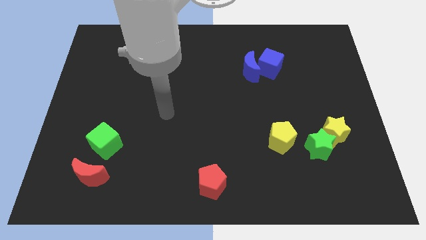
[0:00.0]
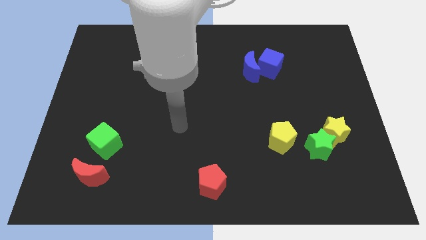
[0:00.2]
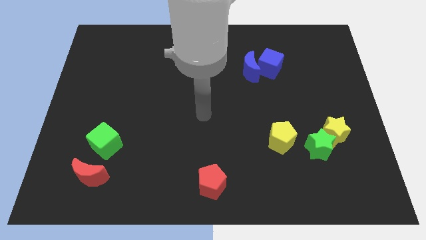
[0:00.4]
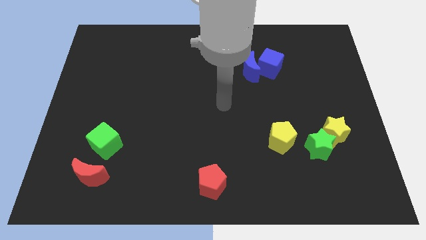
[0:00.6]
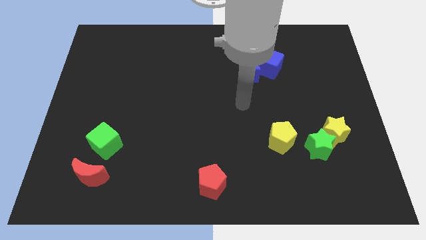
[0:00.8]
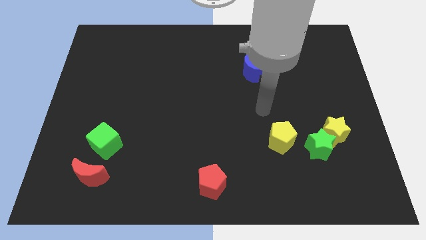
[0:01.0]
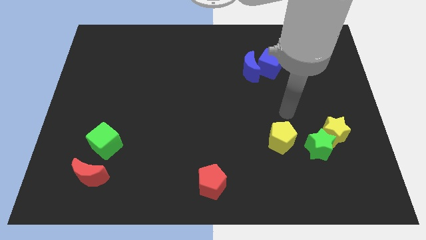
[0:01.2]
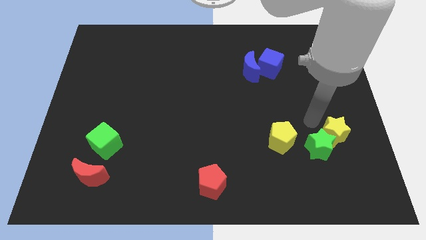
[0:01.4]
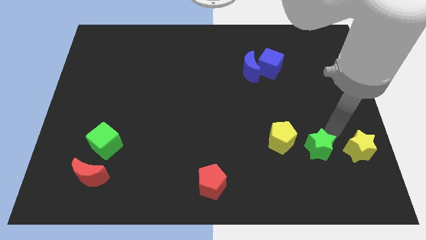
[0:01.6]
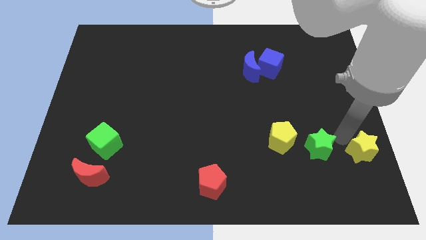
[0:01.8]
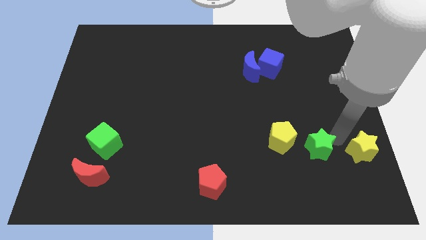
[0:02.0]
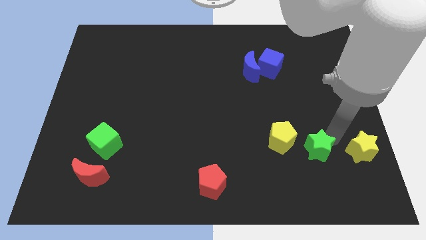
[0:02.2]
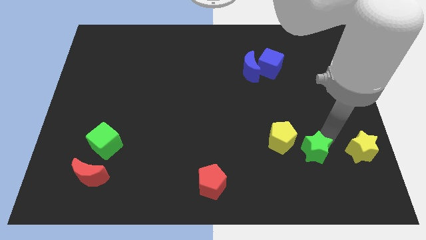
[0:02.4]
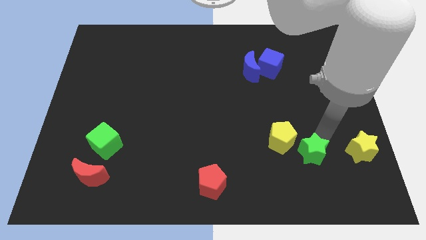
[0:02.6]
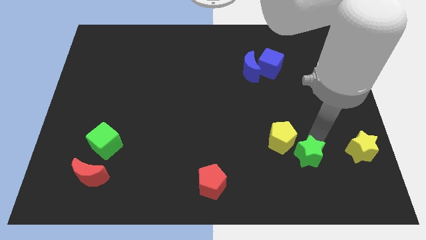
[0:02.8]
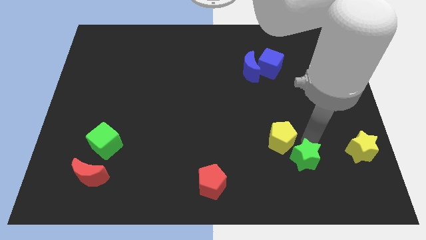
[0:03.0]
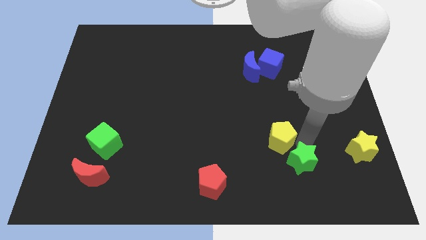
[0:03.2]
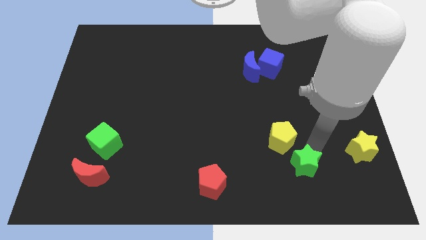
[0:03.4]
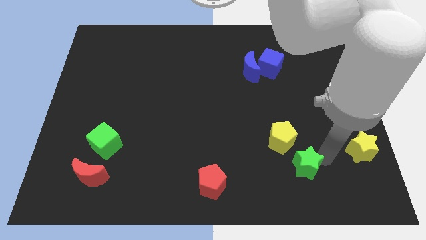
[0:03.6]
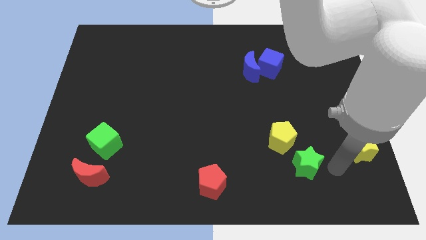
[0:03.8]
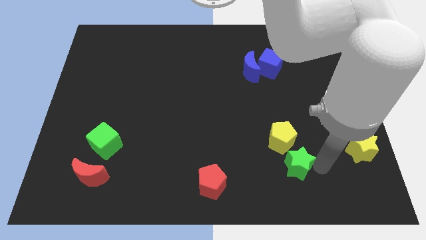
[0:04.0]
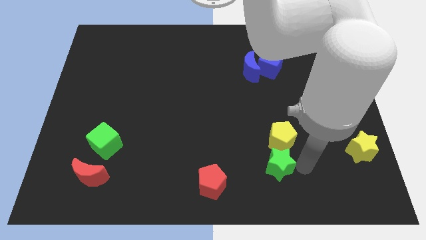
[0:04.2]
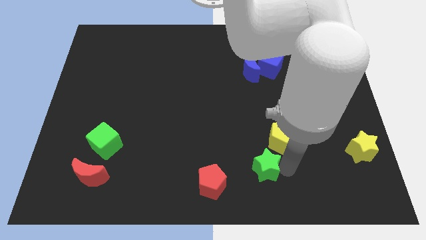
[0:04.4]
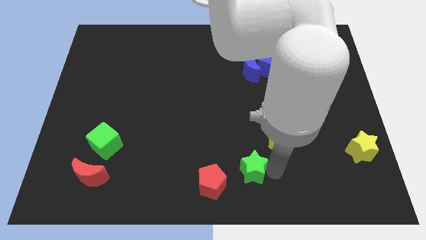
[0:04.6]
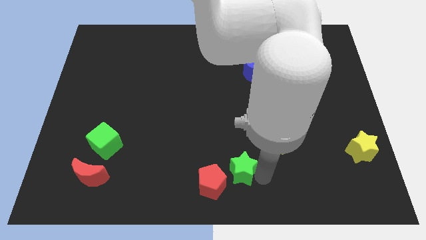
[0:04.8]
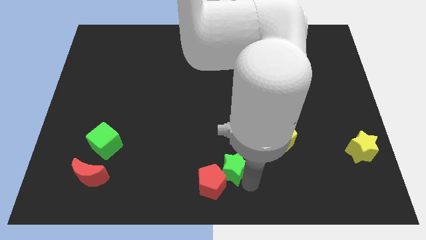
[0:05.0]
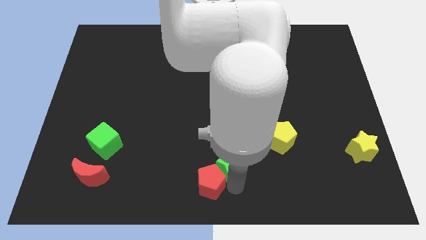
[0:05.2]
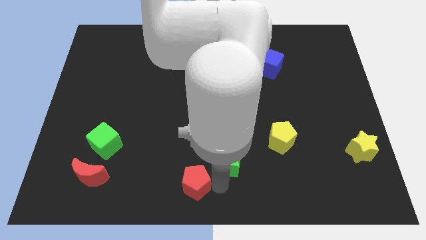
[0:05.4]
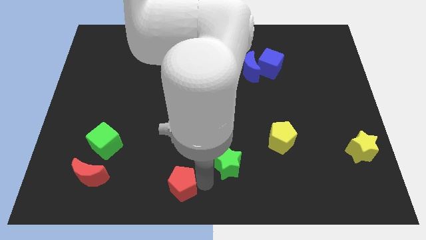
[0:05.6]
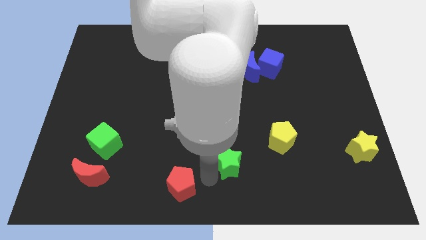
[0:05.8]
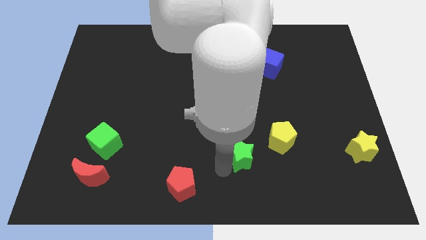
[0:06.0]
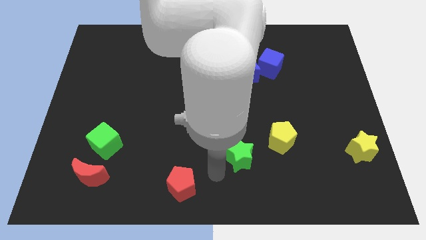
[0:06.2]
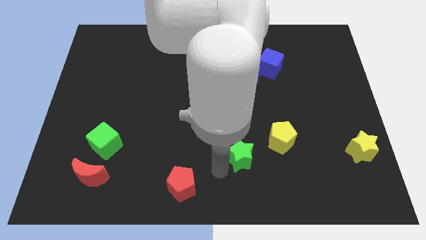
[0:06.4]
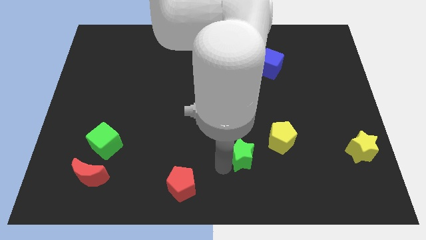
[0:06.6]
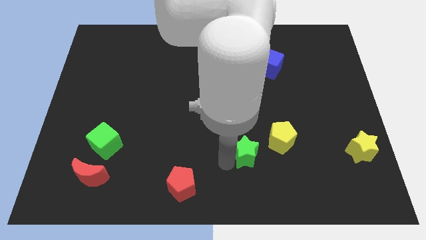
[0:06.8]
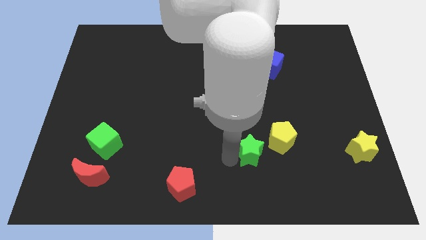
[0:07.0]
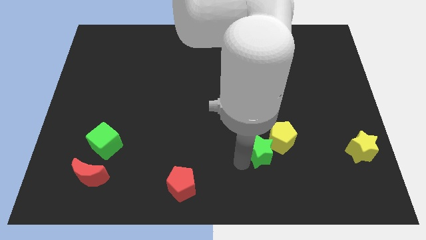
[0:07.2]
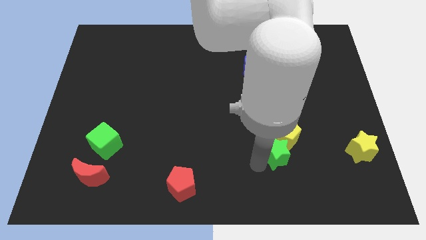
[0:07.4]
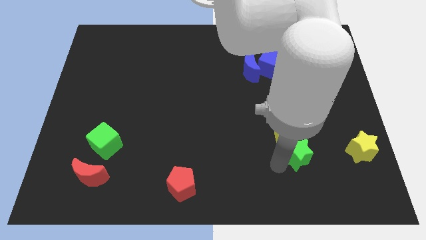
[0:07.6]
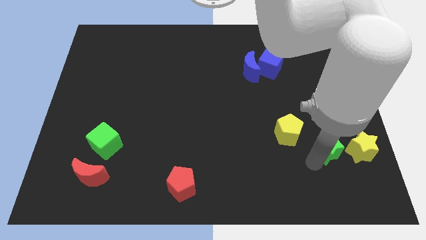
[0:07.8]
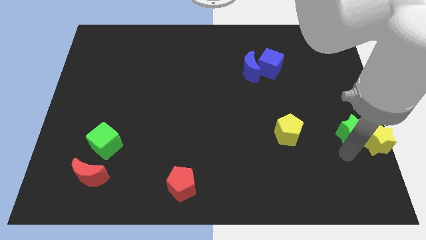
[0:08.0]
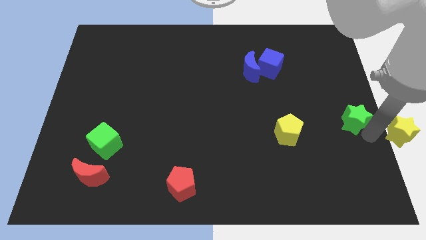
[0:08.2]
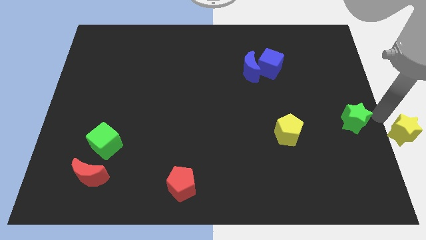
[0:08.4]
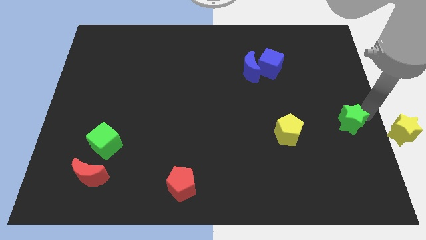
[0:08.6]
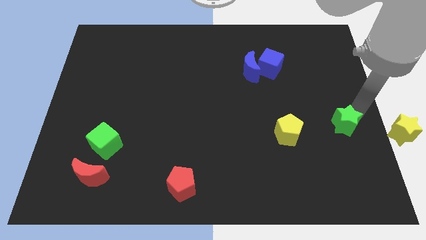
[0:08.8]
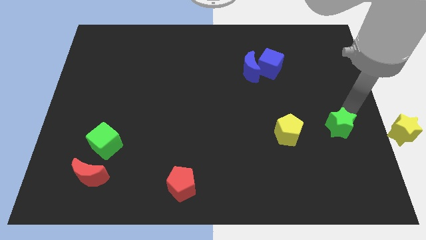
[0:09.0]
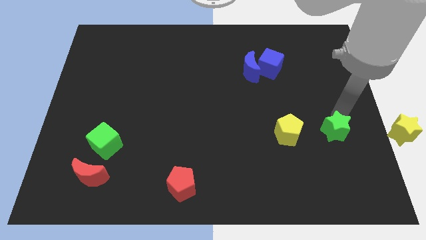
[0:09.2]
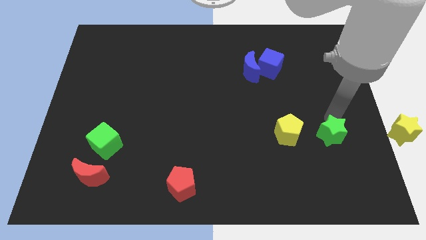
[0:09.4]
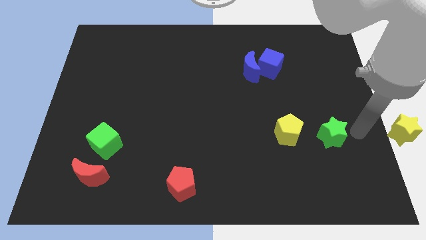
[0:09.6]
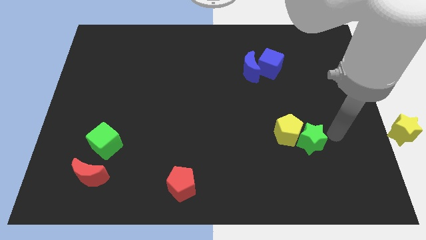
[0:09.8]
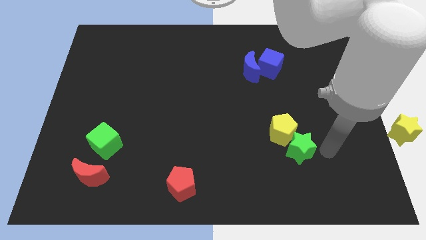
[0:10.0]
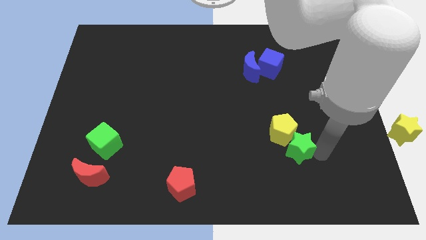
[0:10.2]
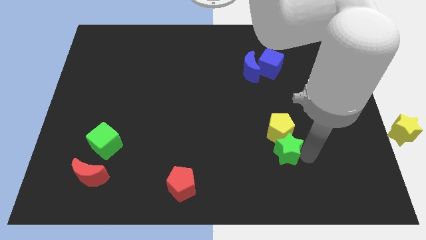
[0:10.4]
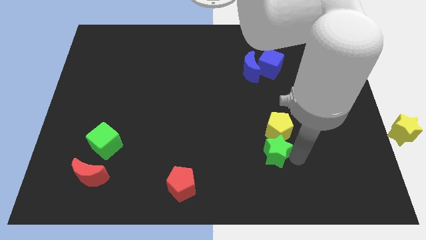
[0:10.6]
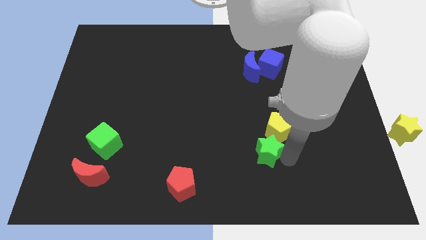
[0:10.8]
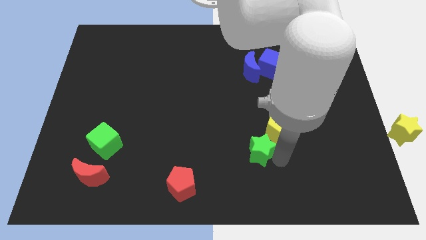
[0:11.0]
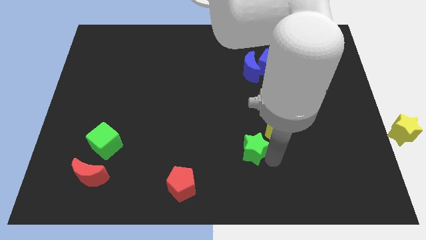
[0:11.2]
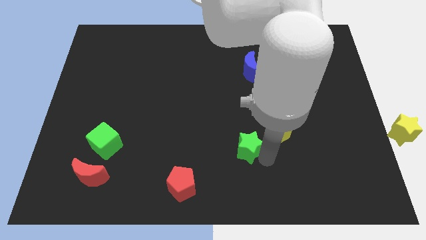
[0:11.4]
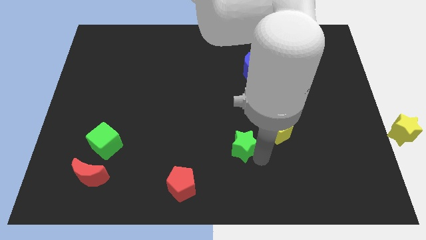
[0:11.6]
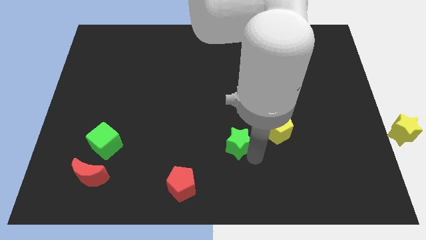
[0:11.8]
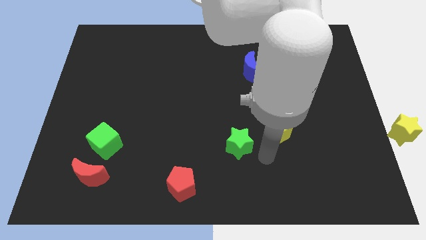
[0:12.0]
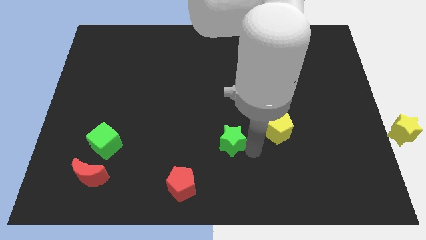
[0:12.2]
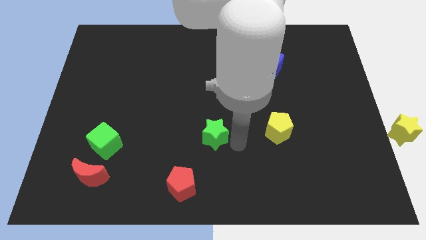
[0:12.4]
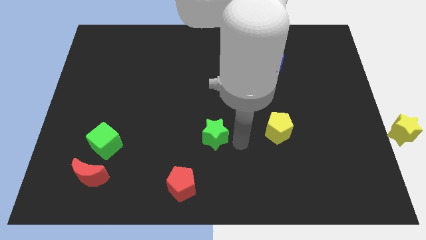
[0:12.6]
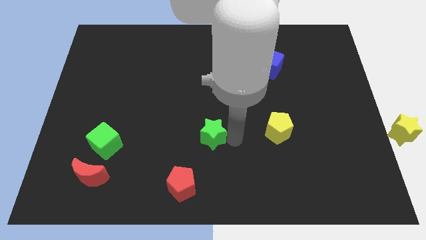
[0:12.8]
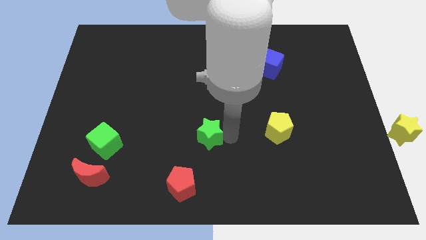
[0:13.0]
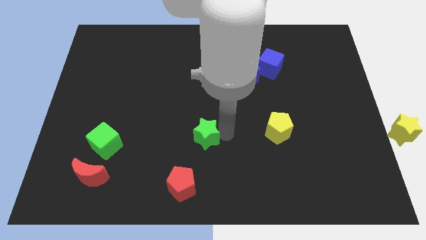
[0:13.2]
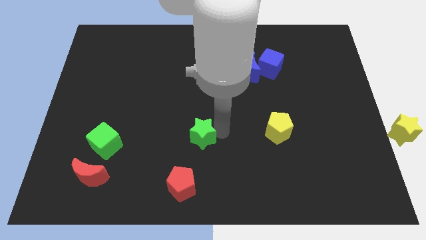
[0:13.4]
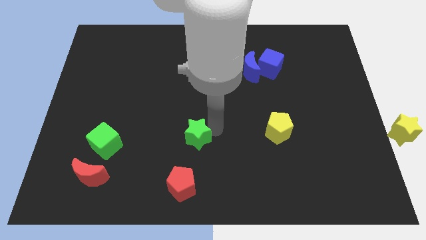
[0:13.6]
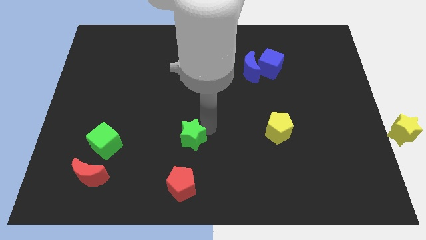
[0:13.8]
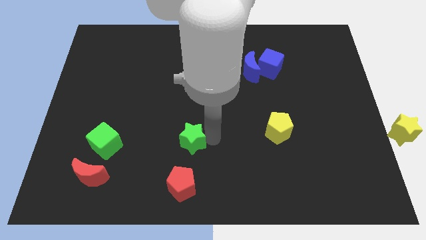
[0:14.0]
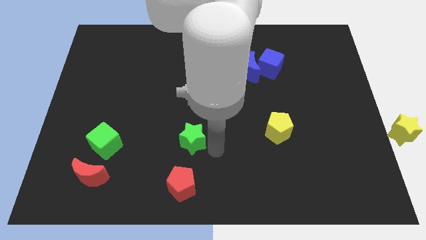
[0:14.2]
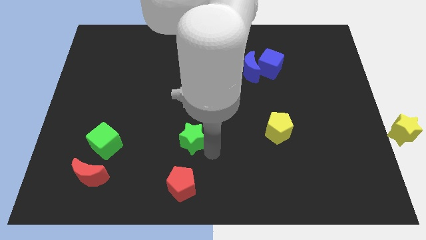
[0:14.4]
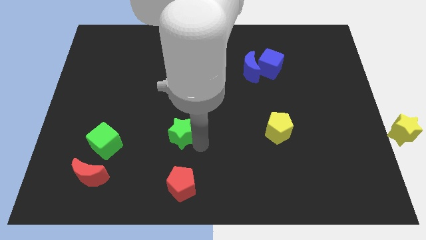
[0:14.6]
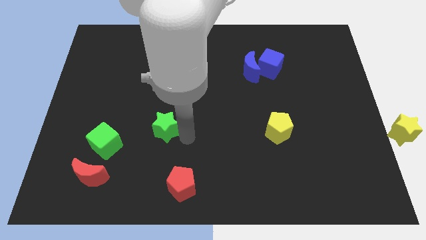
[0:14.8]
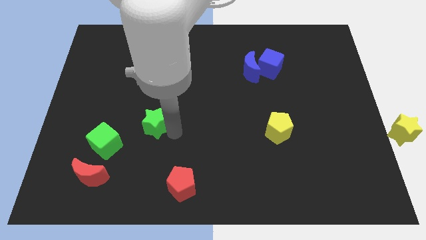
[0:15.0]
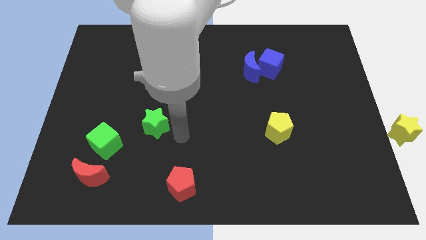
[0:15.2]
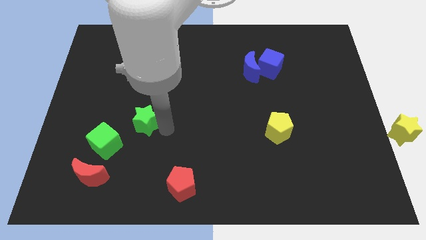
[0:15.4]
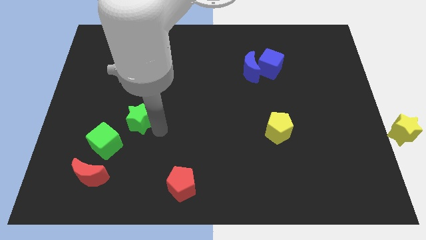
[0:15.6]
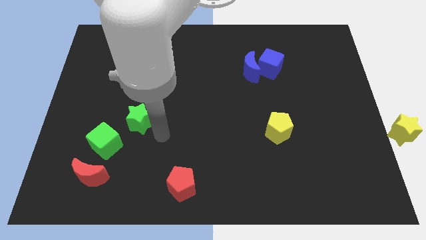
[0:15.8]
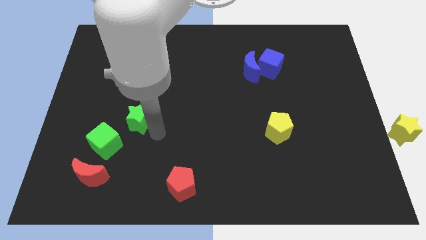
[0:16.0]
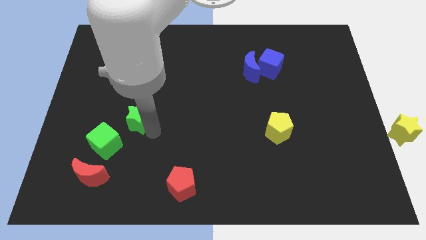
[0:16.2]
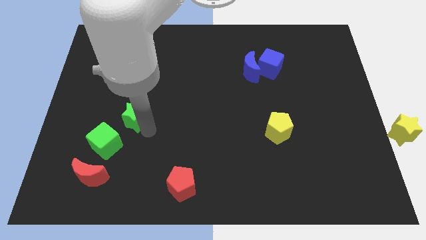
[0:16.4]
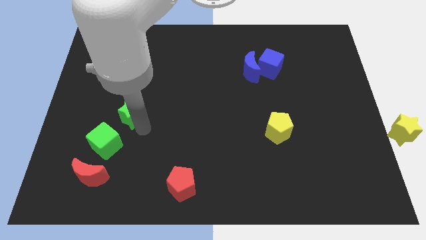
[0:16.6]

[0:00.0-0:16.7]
move the green star to the top of the green cube
